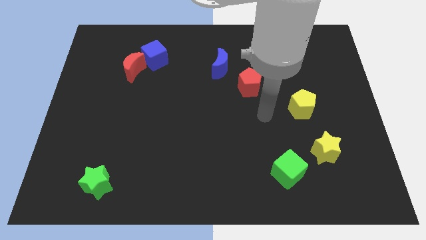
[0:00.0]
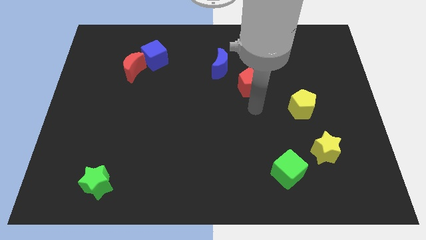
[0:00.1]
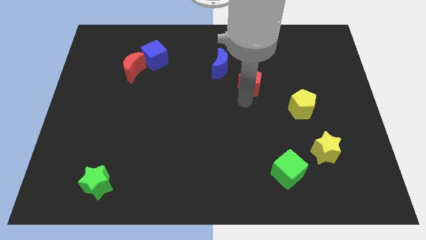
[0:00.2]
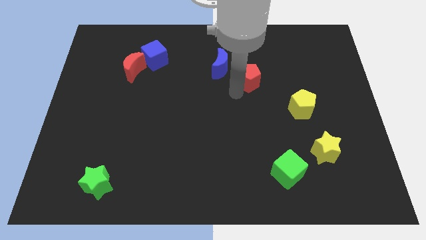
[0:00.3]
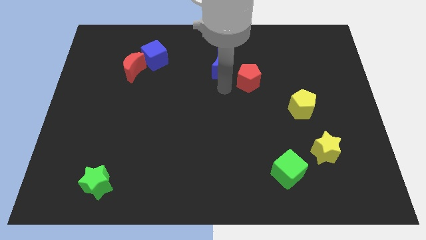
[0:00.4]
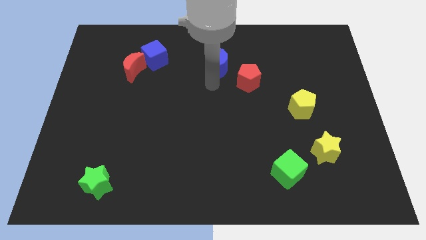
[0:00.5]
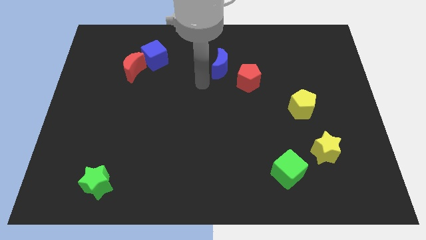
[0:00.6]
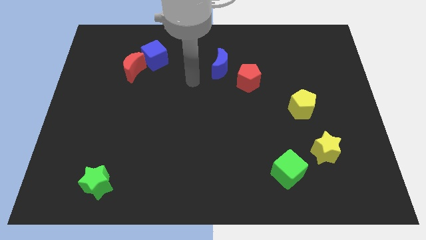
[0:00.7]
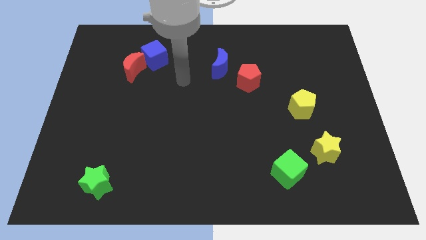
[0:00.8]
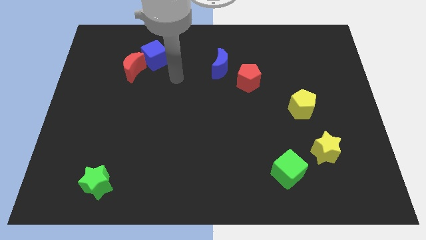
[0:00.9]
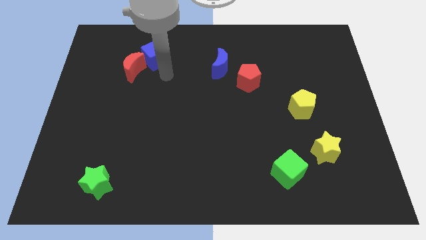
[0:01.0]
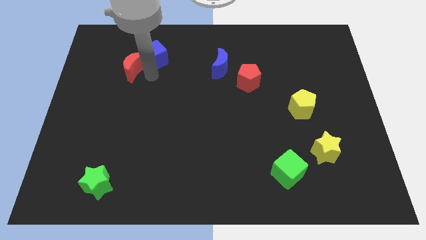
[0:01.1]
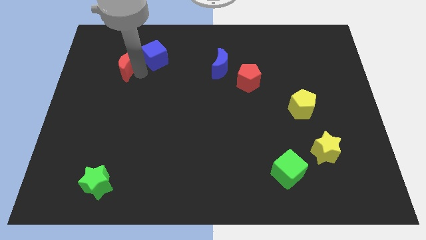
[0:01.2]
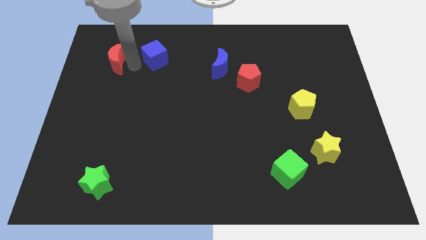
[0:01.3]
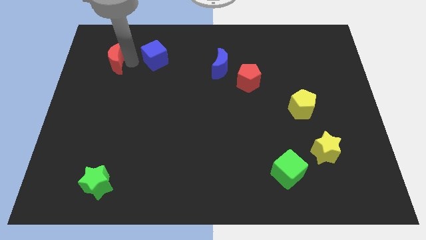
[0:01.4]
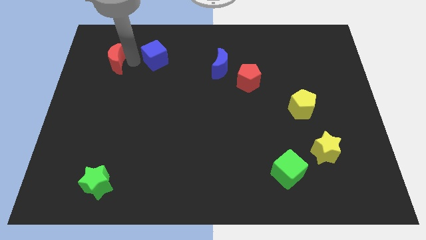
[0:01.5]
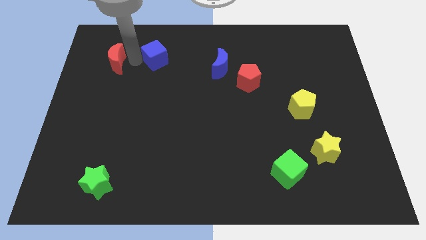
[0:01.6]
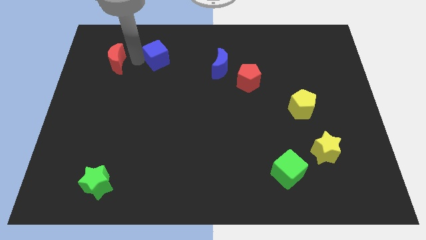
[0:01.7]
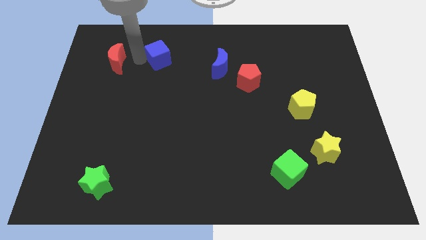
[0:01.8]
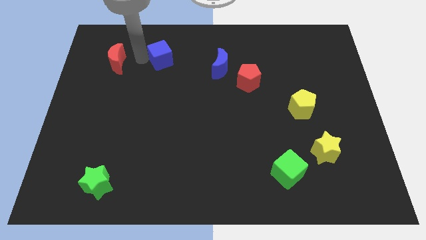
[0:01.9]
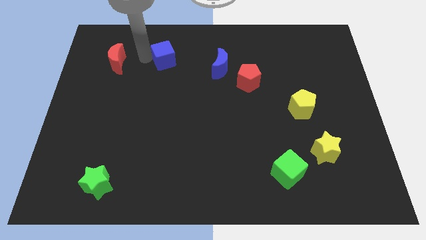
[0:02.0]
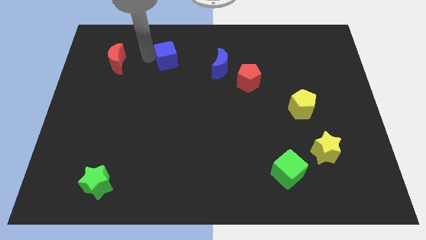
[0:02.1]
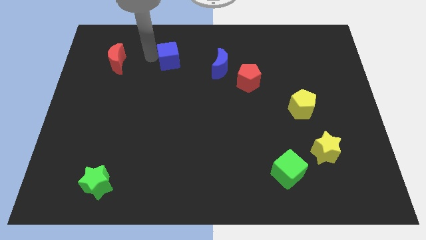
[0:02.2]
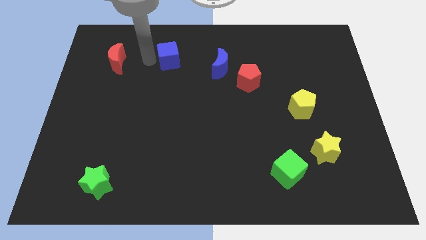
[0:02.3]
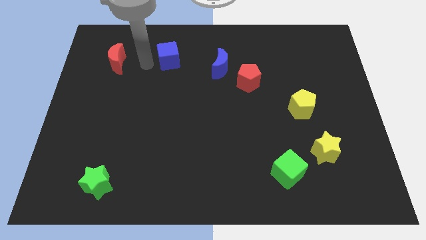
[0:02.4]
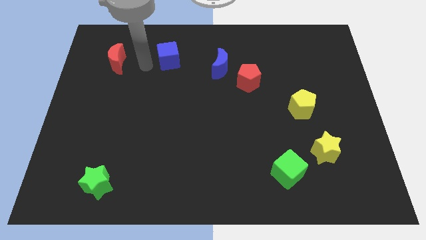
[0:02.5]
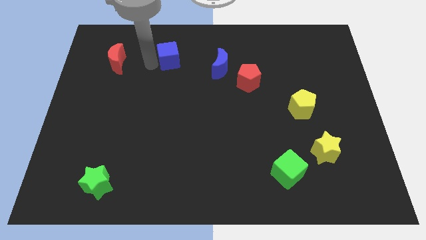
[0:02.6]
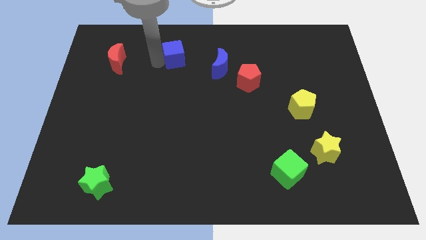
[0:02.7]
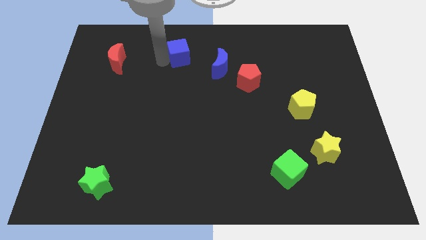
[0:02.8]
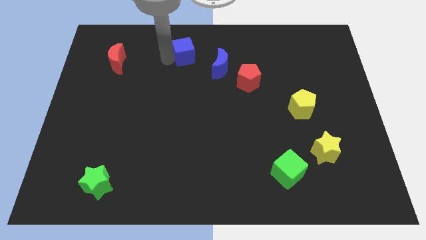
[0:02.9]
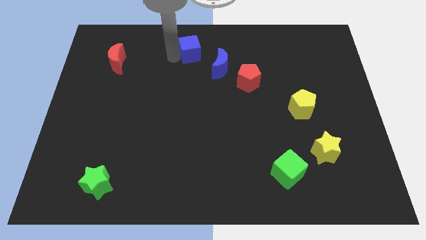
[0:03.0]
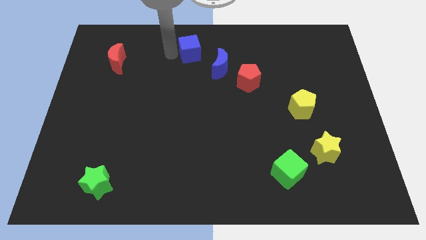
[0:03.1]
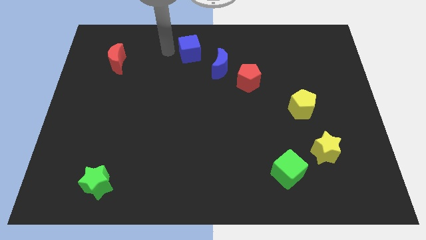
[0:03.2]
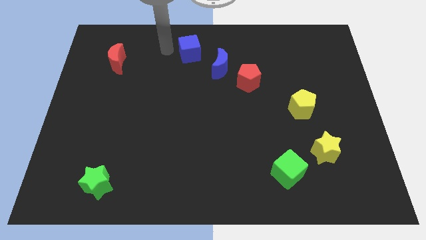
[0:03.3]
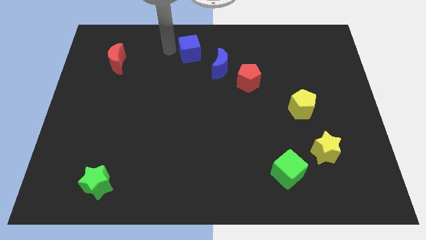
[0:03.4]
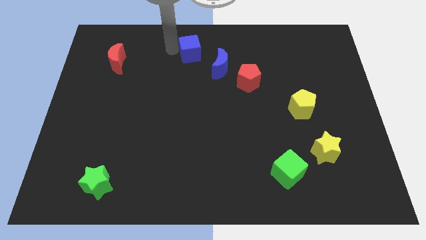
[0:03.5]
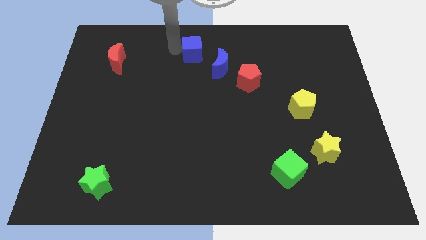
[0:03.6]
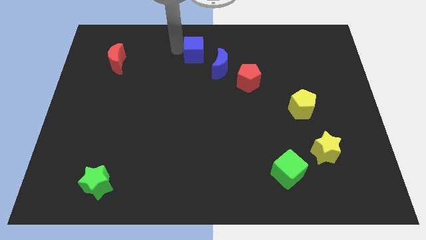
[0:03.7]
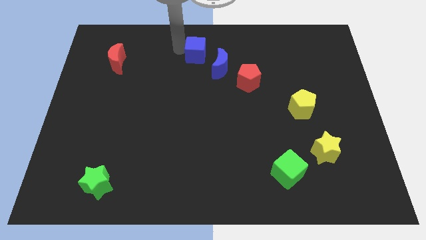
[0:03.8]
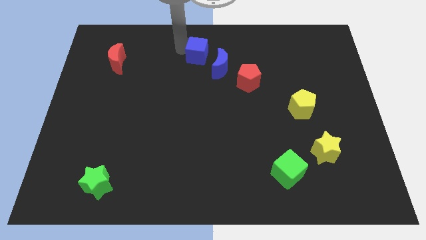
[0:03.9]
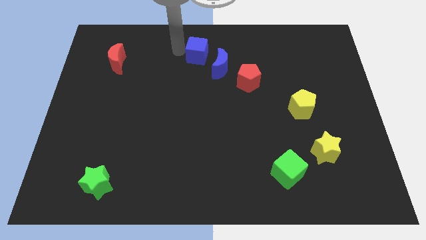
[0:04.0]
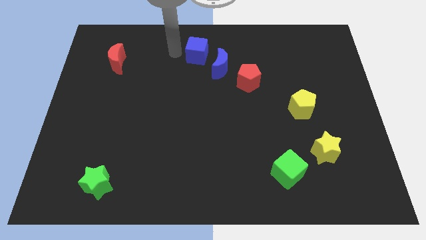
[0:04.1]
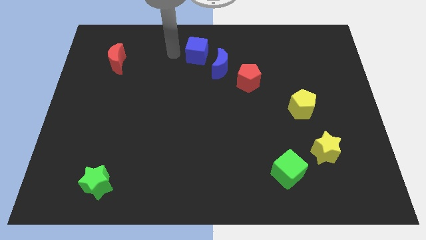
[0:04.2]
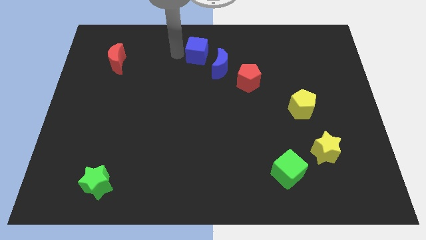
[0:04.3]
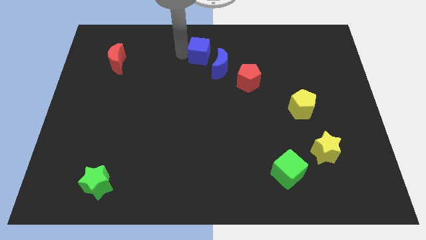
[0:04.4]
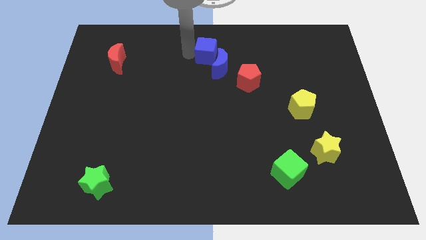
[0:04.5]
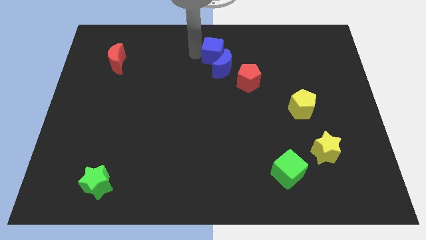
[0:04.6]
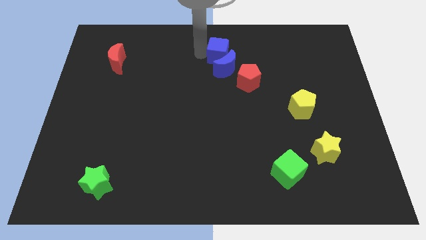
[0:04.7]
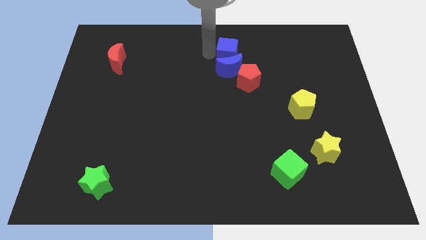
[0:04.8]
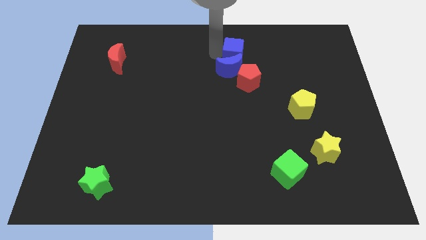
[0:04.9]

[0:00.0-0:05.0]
push the blue cube right

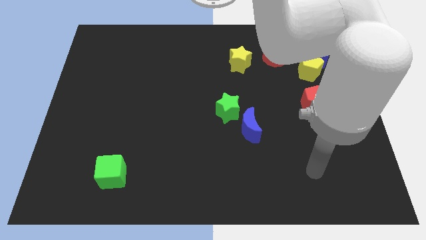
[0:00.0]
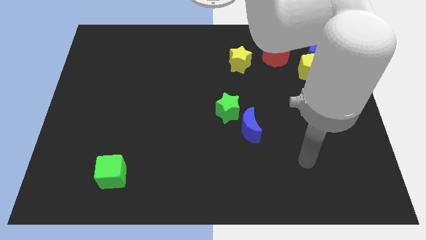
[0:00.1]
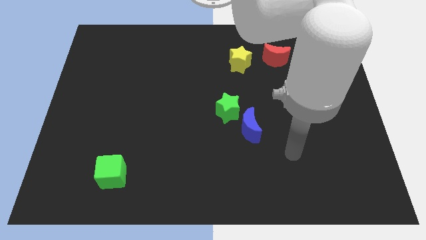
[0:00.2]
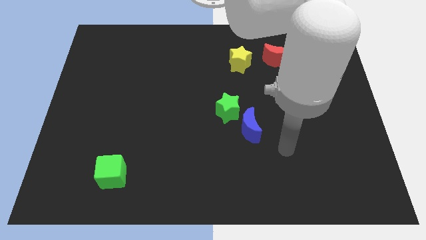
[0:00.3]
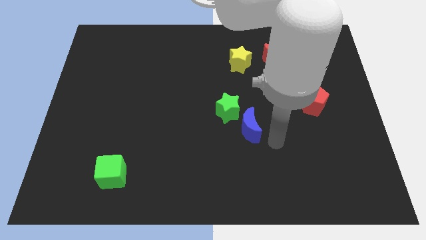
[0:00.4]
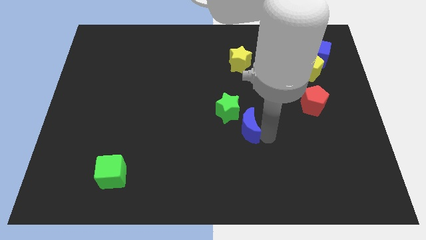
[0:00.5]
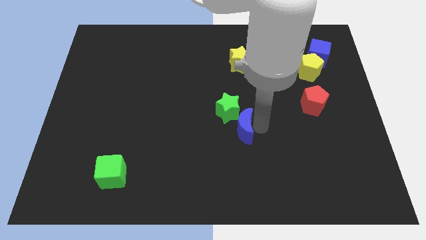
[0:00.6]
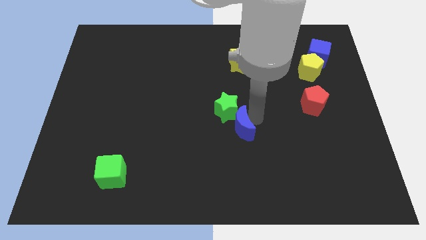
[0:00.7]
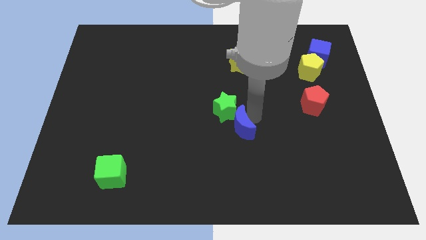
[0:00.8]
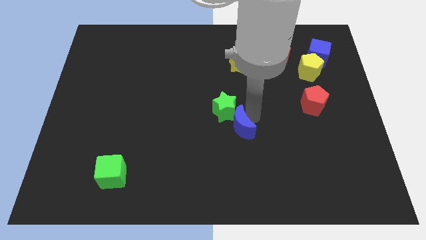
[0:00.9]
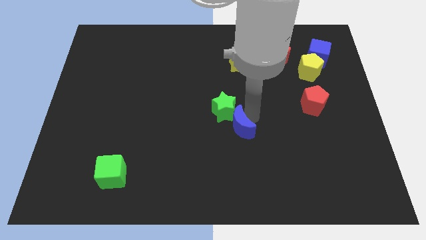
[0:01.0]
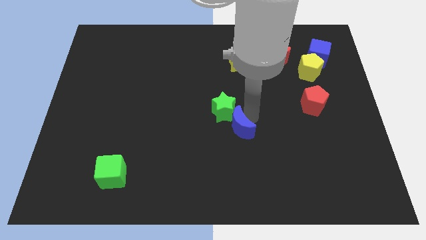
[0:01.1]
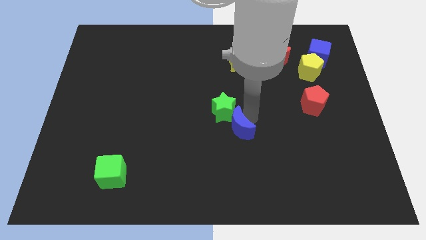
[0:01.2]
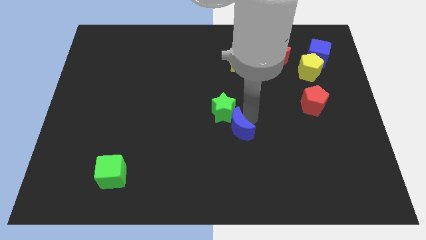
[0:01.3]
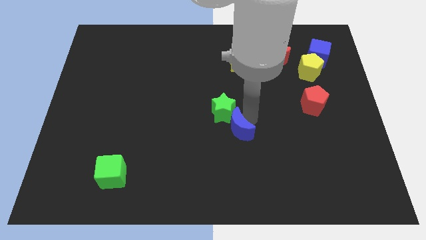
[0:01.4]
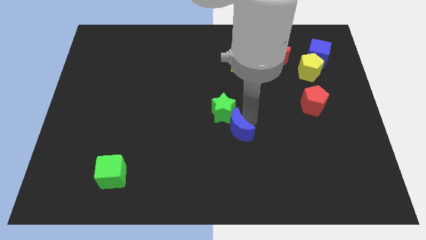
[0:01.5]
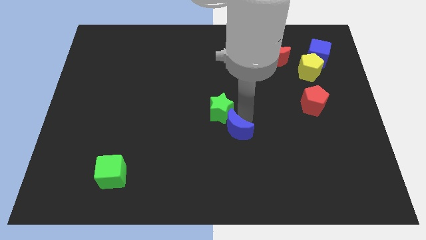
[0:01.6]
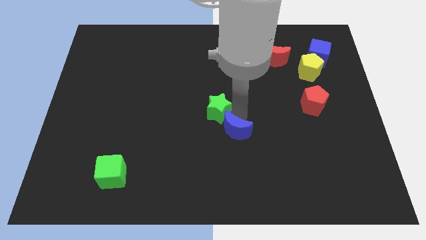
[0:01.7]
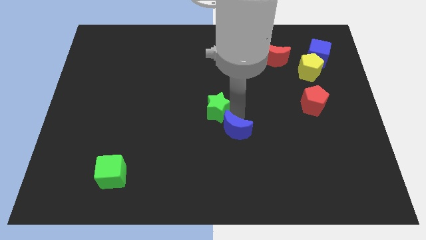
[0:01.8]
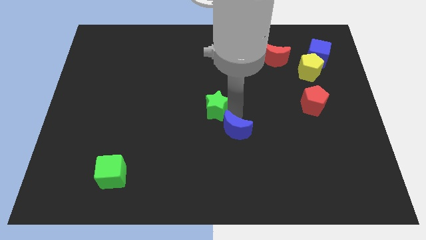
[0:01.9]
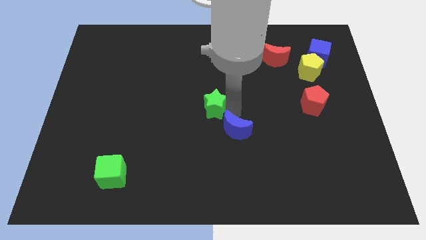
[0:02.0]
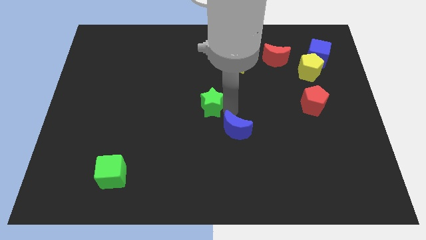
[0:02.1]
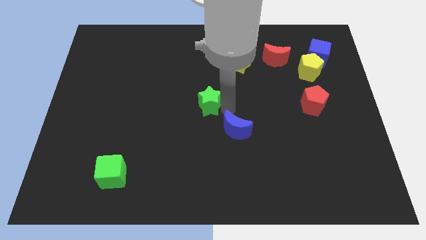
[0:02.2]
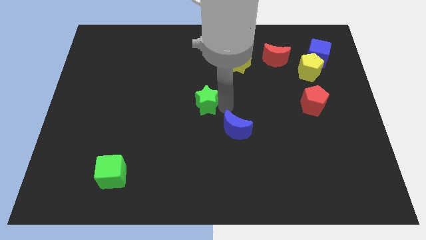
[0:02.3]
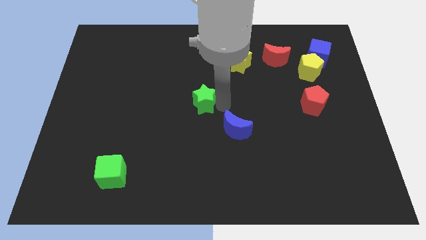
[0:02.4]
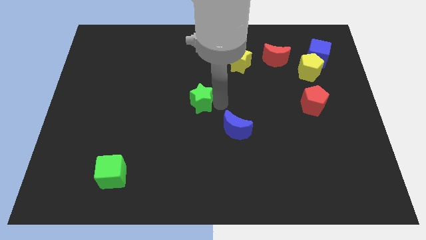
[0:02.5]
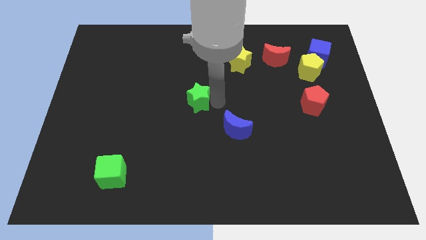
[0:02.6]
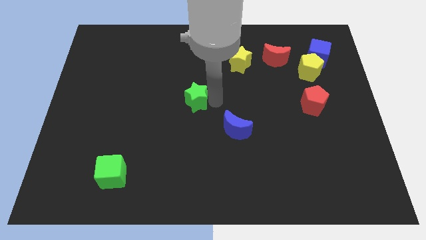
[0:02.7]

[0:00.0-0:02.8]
slide the green star a bit to the left

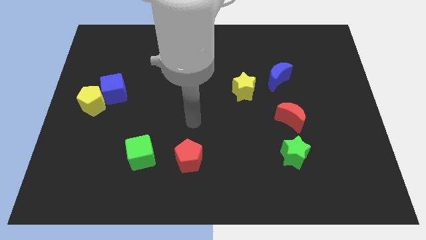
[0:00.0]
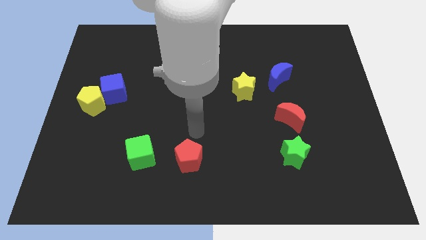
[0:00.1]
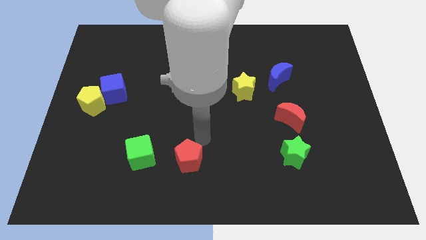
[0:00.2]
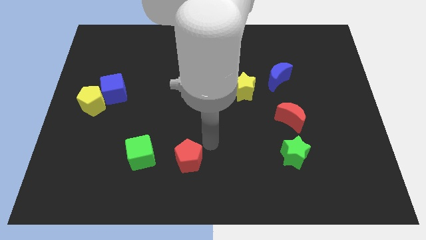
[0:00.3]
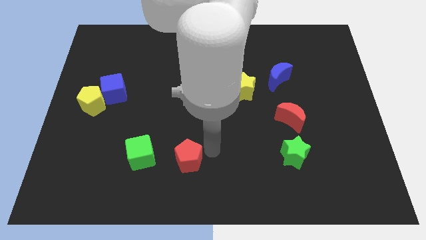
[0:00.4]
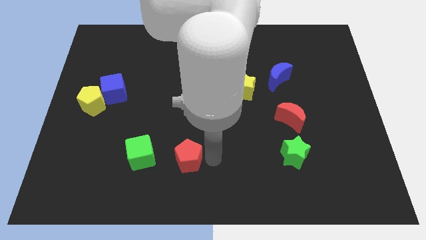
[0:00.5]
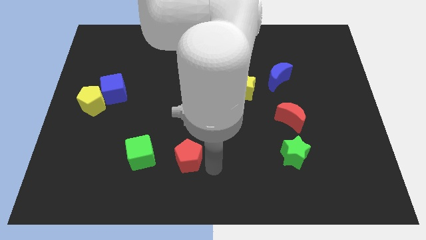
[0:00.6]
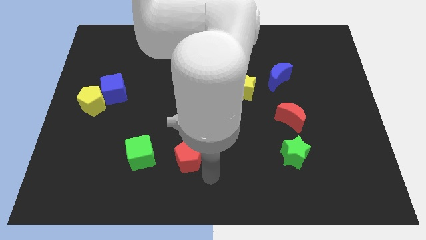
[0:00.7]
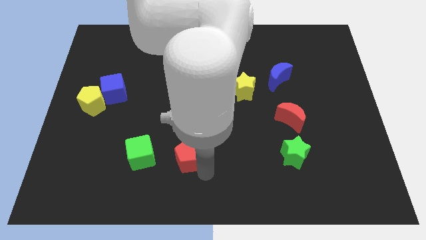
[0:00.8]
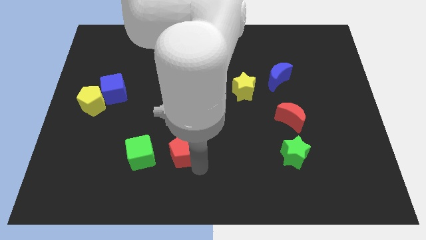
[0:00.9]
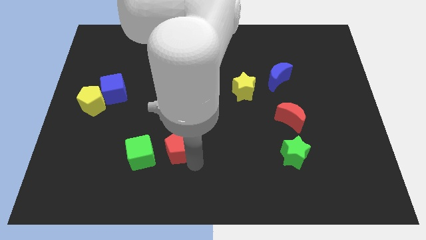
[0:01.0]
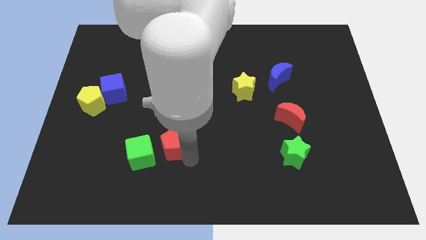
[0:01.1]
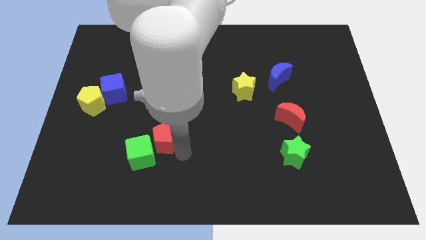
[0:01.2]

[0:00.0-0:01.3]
slightly push the red pentagon up and to the left
